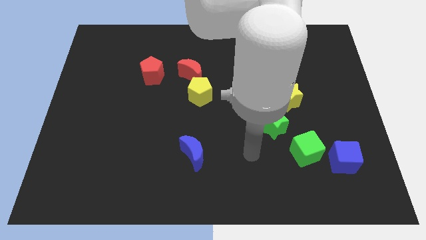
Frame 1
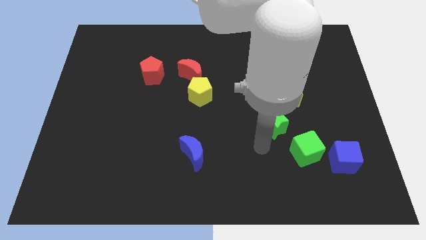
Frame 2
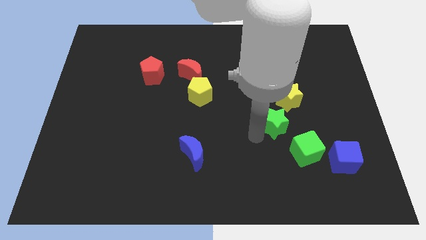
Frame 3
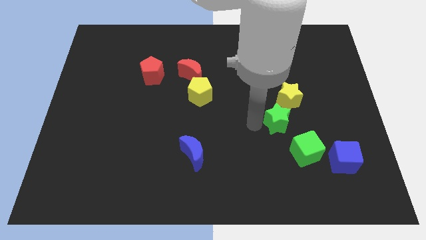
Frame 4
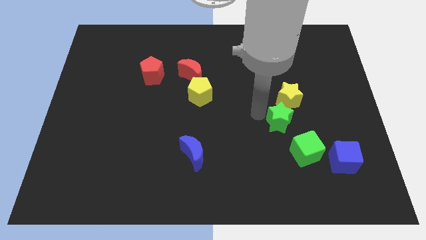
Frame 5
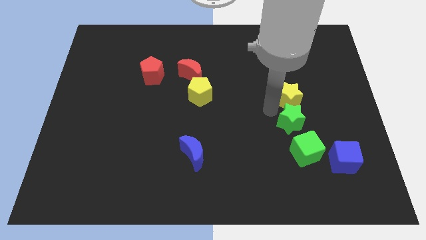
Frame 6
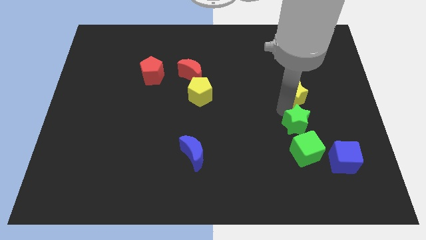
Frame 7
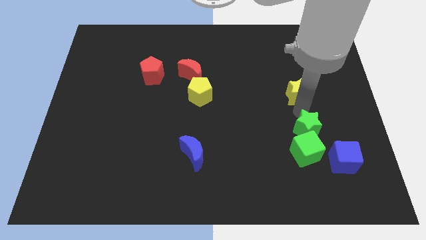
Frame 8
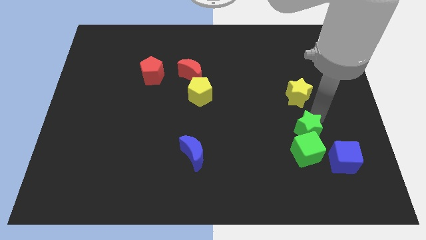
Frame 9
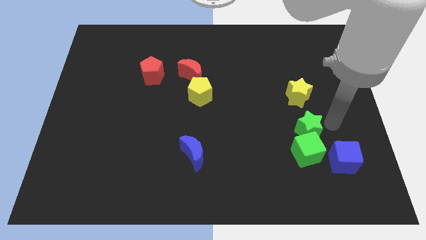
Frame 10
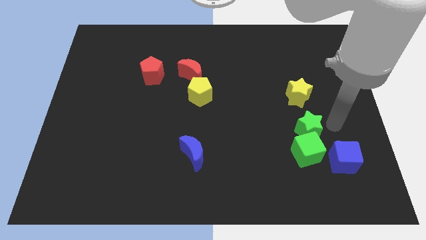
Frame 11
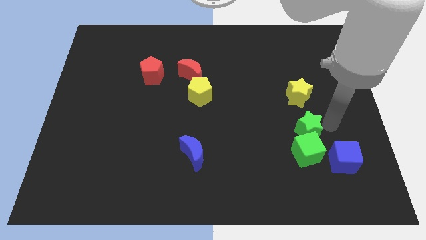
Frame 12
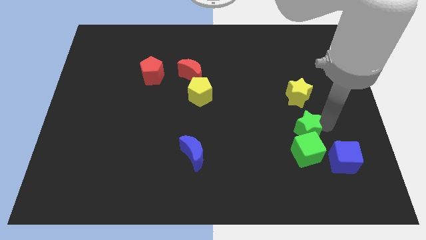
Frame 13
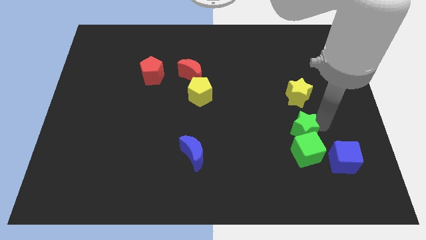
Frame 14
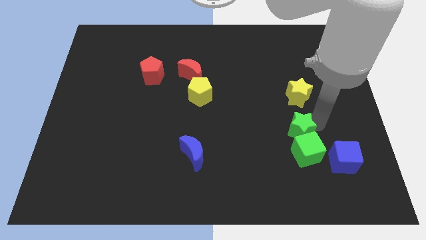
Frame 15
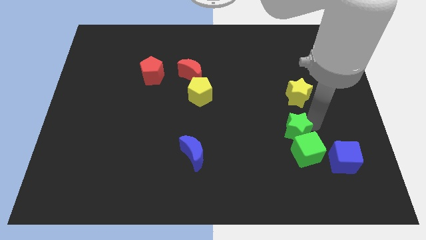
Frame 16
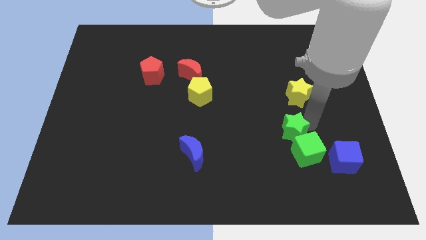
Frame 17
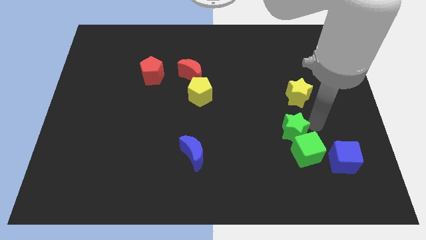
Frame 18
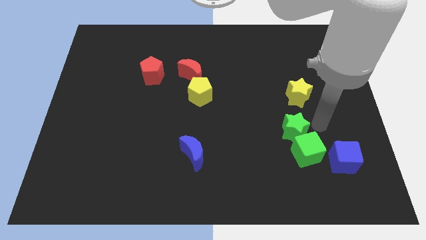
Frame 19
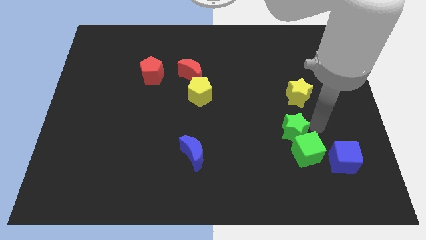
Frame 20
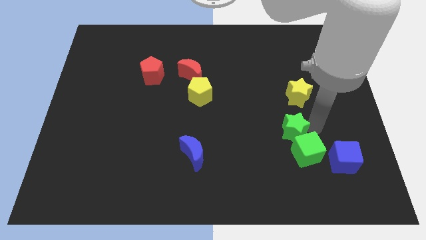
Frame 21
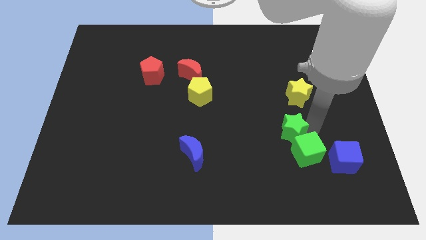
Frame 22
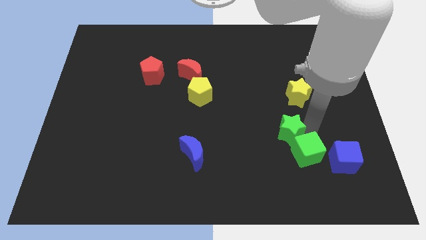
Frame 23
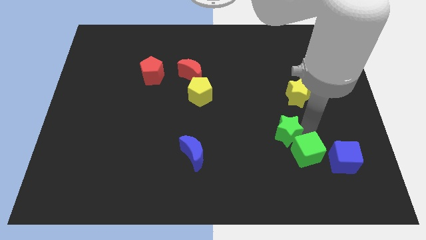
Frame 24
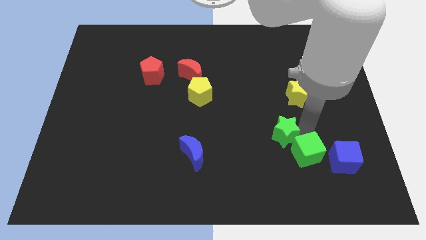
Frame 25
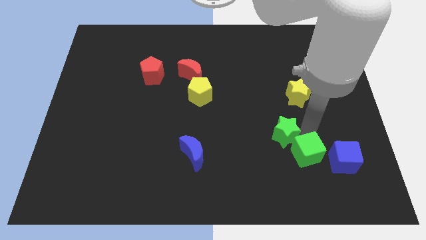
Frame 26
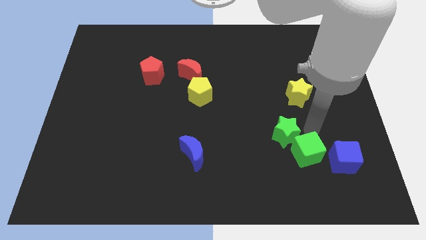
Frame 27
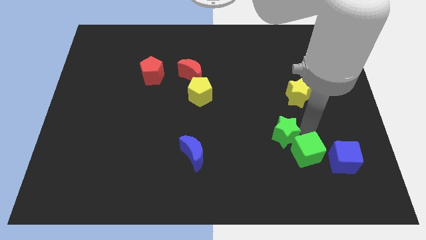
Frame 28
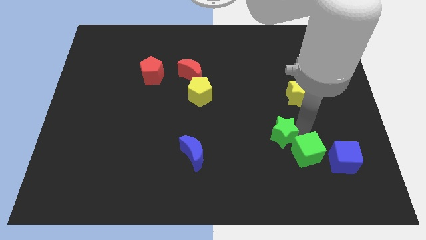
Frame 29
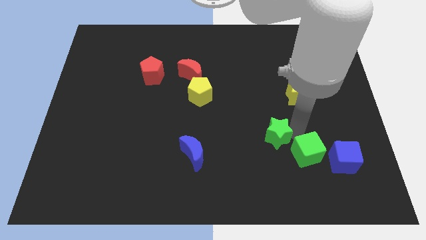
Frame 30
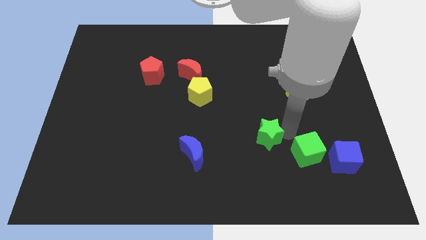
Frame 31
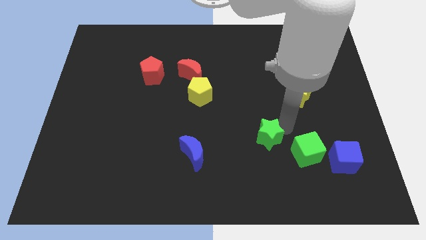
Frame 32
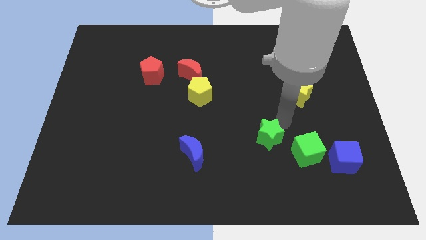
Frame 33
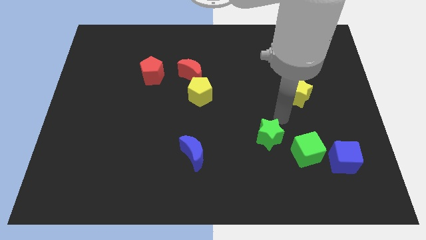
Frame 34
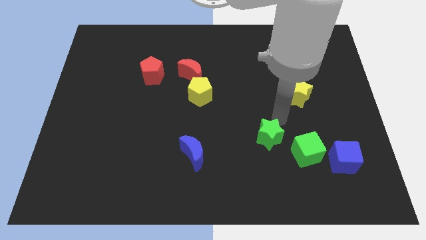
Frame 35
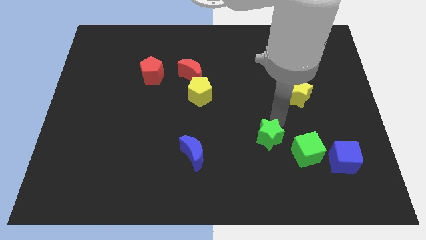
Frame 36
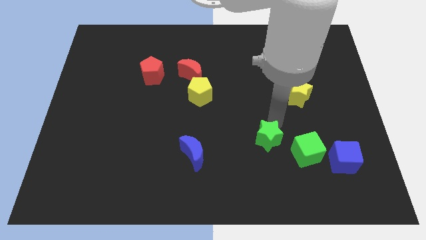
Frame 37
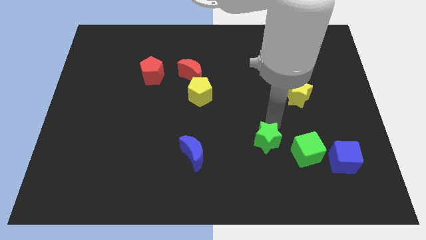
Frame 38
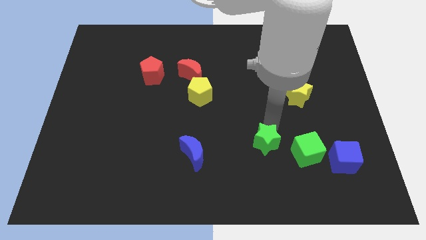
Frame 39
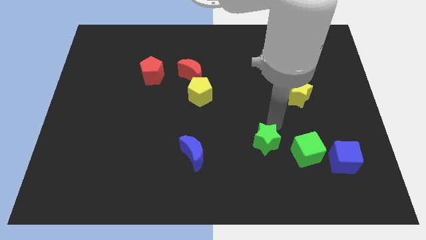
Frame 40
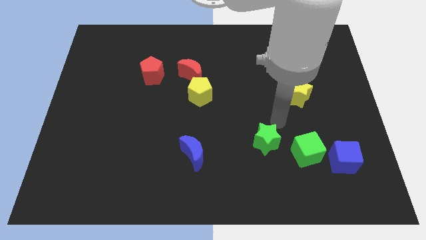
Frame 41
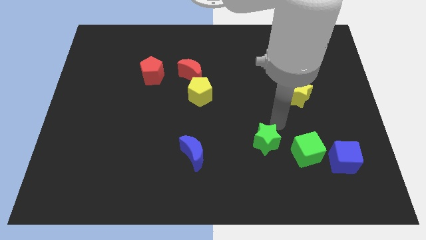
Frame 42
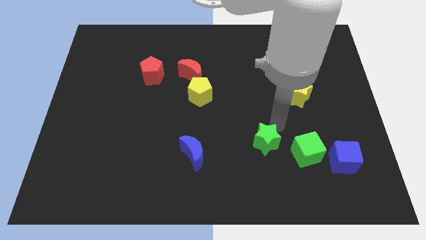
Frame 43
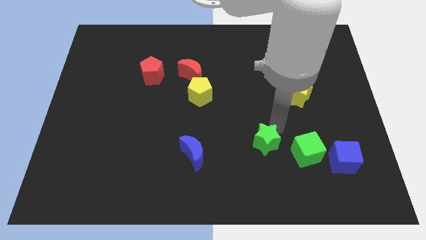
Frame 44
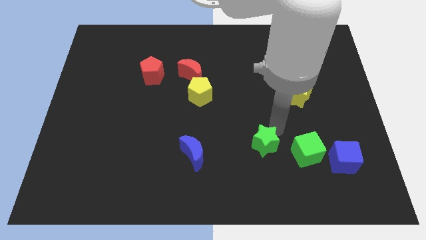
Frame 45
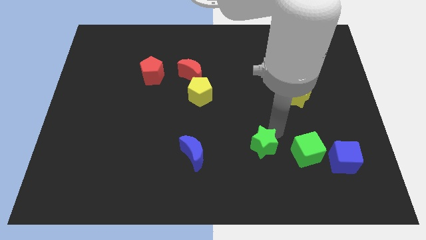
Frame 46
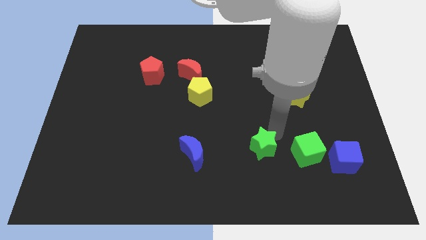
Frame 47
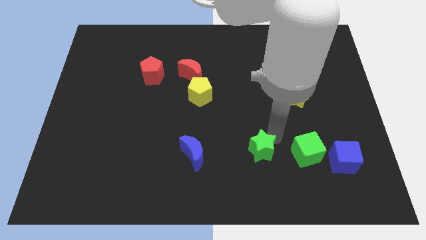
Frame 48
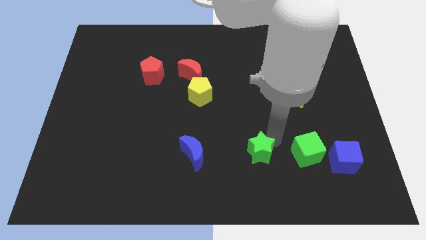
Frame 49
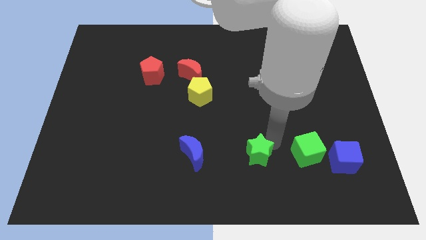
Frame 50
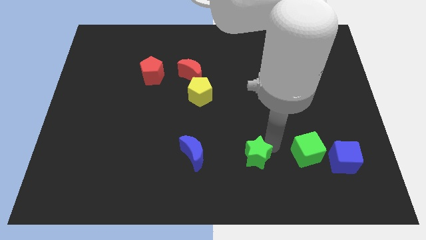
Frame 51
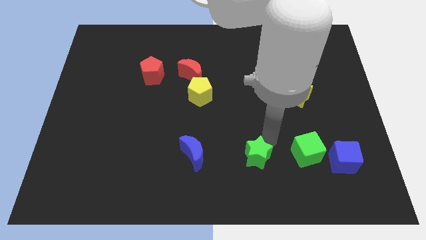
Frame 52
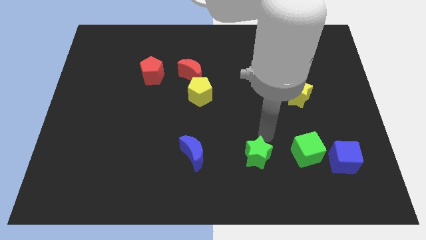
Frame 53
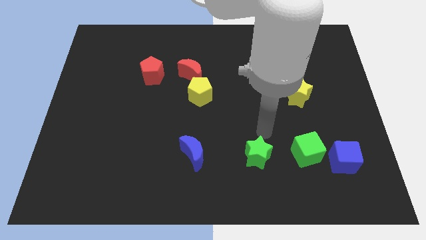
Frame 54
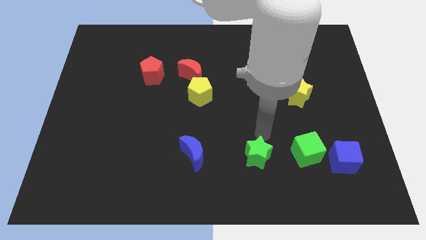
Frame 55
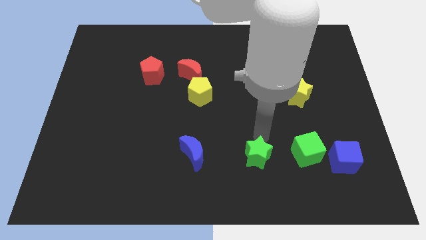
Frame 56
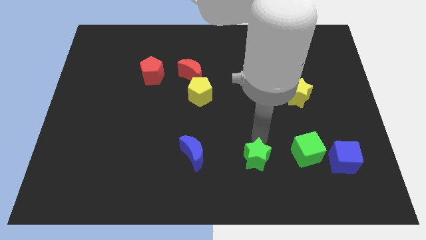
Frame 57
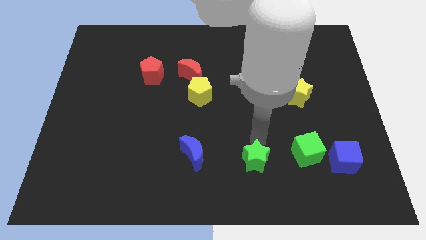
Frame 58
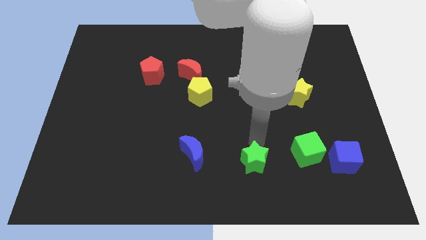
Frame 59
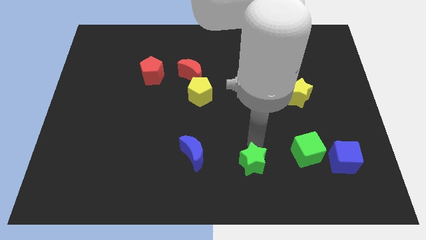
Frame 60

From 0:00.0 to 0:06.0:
put the green star to the bottom side

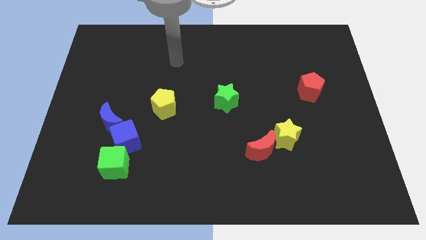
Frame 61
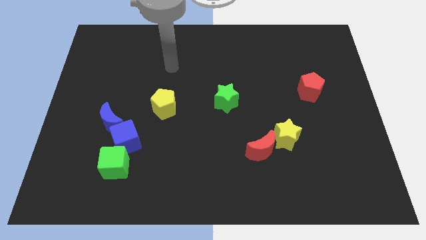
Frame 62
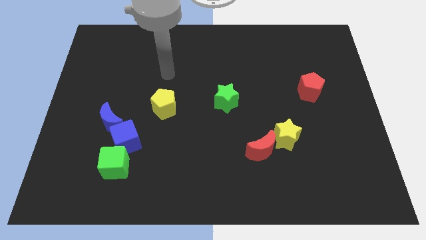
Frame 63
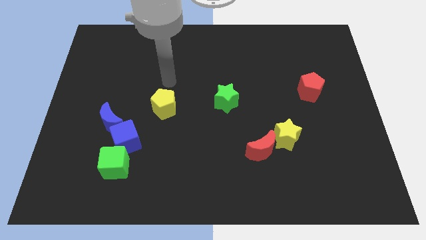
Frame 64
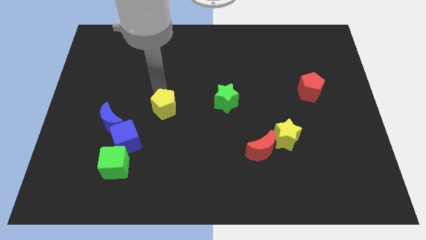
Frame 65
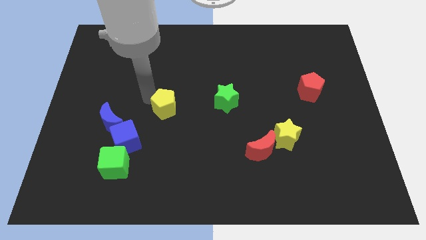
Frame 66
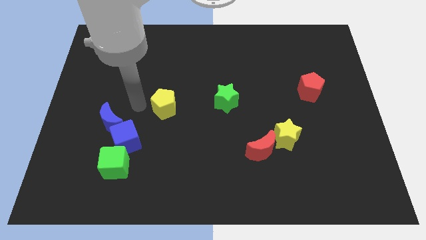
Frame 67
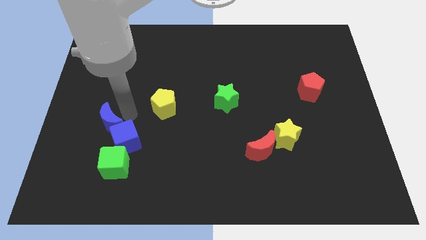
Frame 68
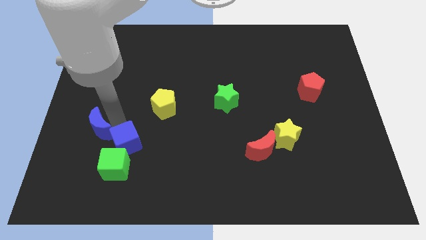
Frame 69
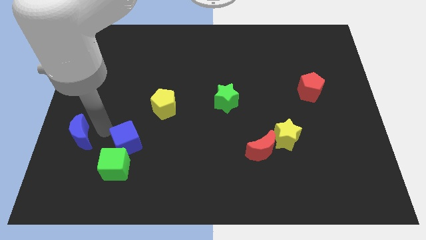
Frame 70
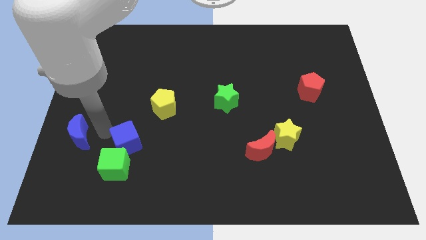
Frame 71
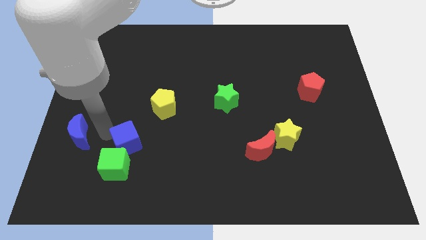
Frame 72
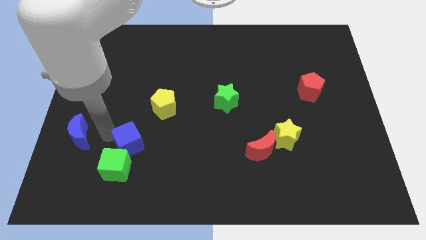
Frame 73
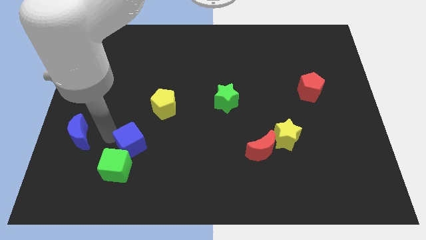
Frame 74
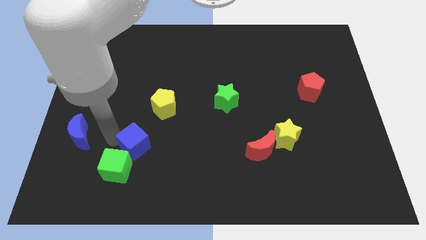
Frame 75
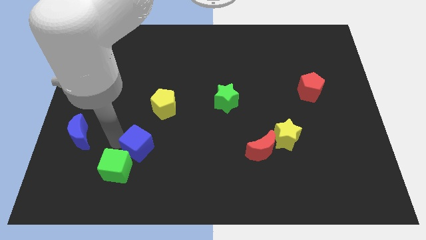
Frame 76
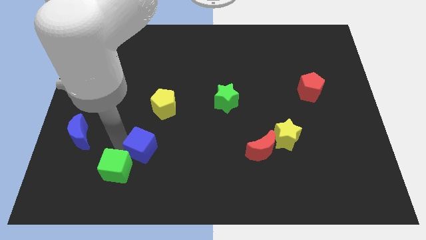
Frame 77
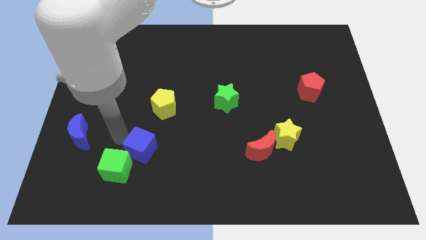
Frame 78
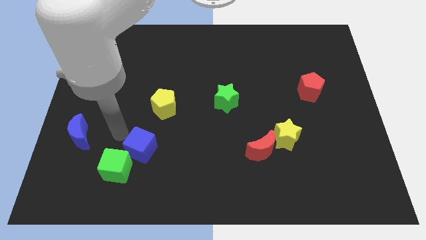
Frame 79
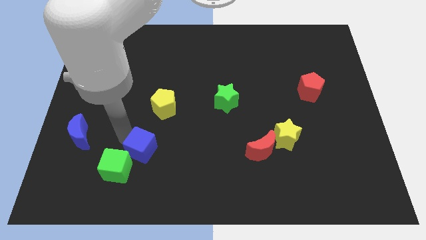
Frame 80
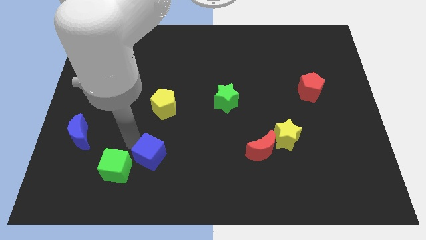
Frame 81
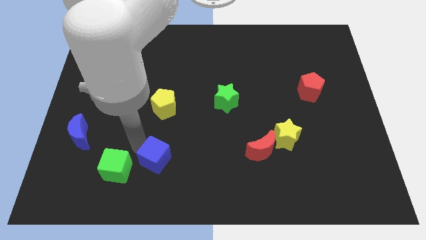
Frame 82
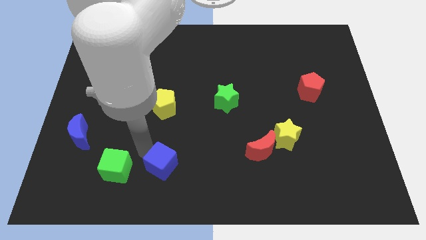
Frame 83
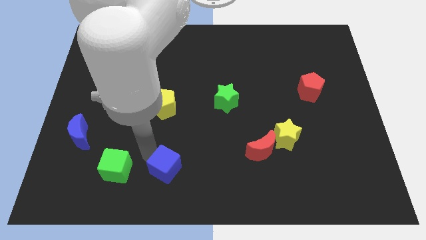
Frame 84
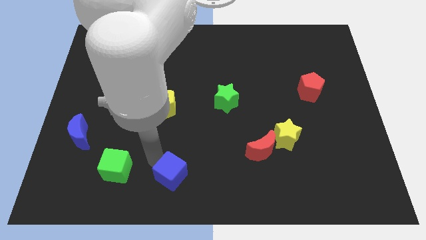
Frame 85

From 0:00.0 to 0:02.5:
put the blue cube to the bottom
